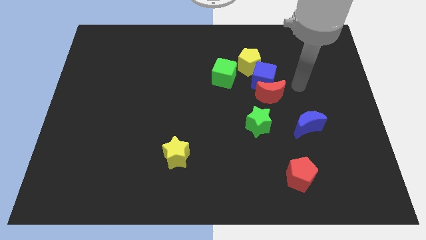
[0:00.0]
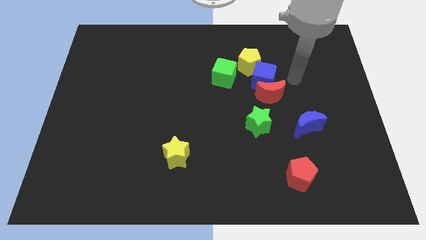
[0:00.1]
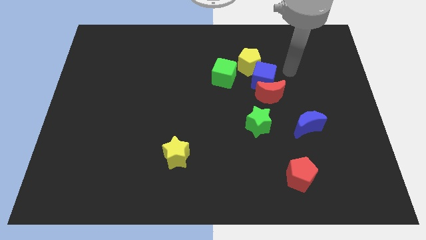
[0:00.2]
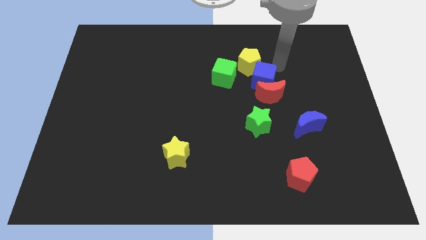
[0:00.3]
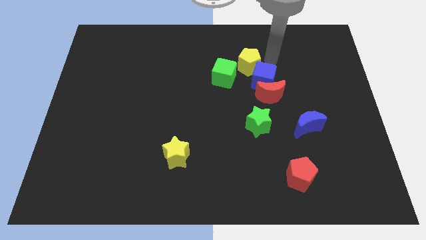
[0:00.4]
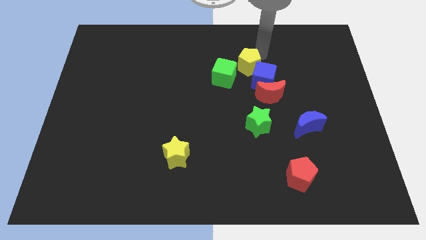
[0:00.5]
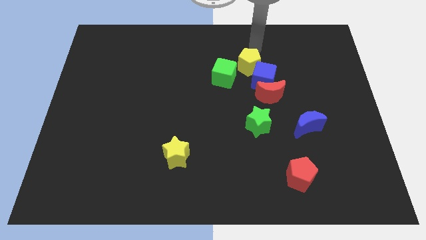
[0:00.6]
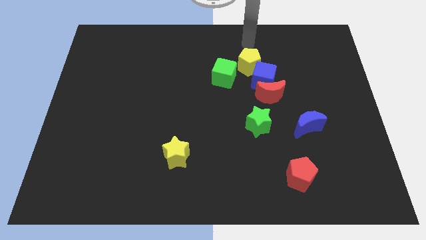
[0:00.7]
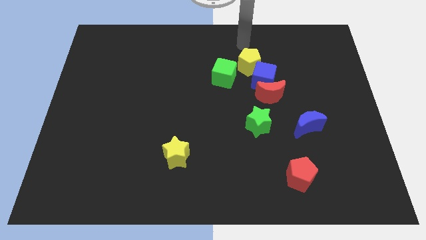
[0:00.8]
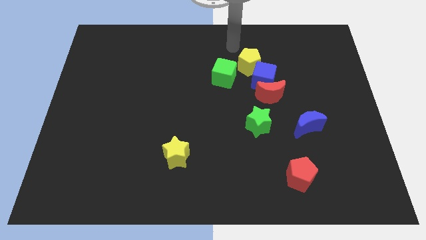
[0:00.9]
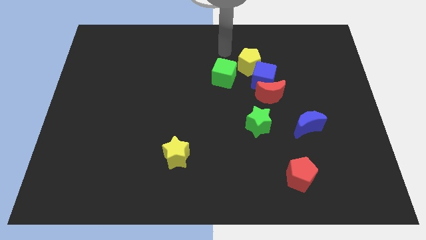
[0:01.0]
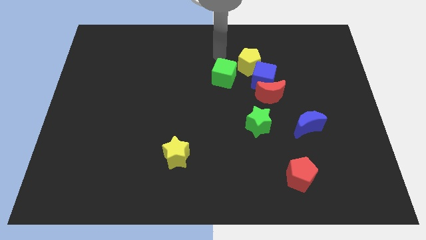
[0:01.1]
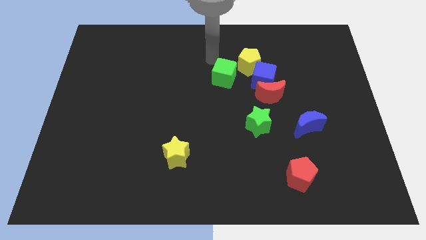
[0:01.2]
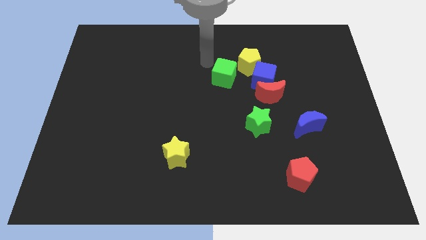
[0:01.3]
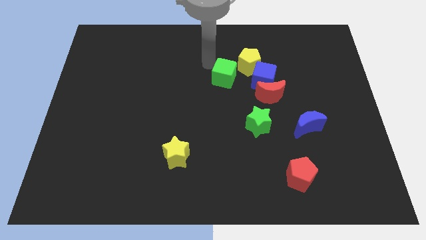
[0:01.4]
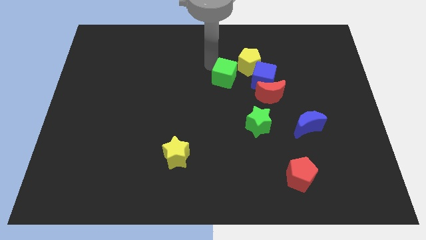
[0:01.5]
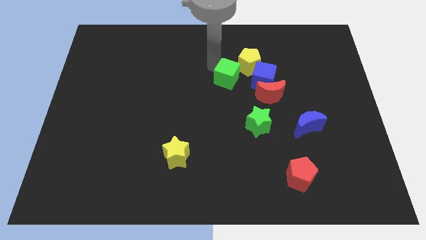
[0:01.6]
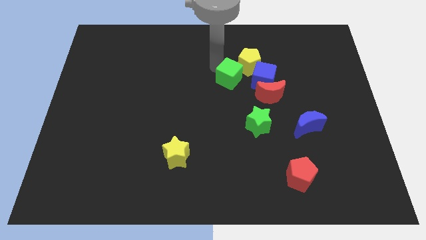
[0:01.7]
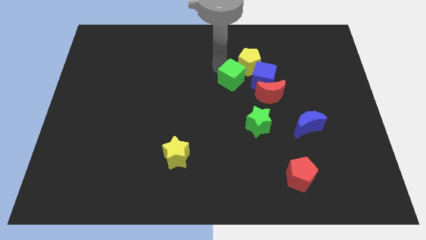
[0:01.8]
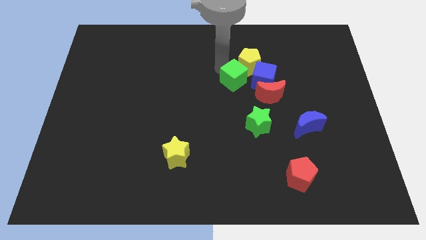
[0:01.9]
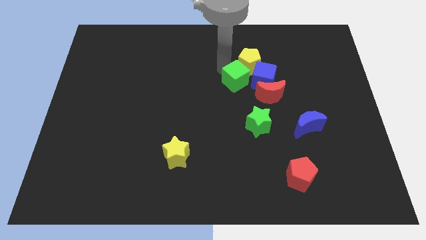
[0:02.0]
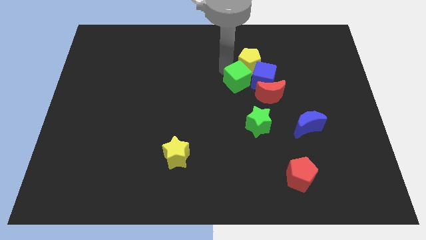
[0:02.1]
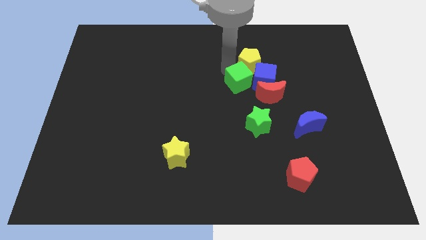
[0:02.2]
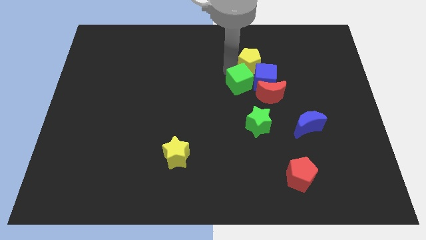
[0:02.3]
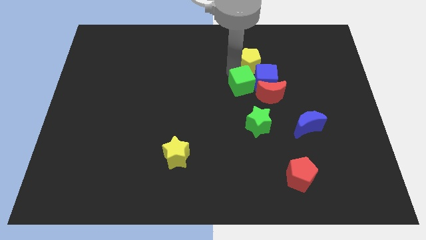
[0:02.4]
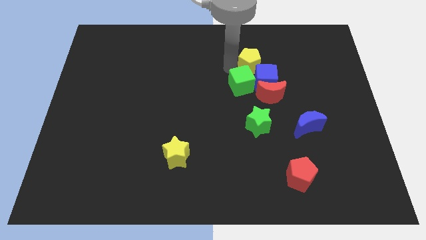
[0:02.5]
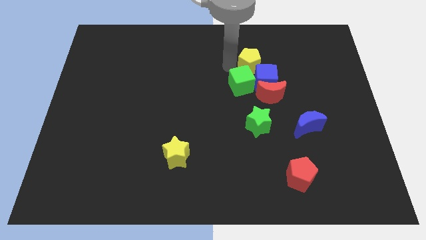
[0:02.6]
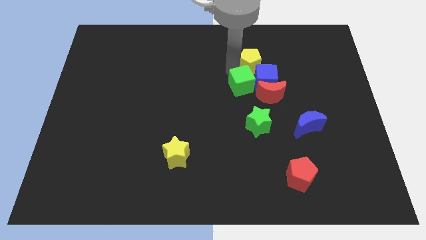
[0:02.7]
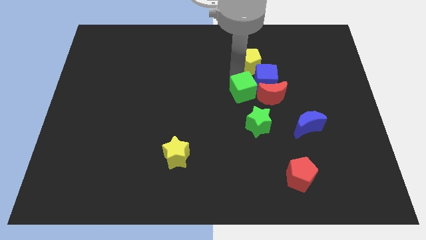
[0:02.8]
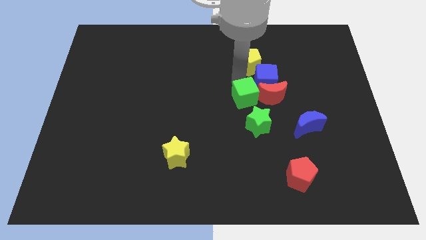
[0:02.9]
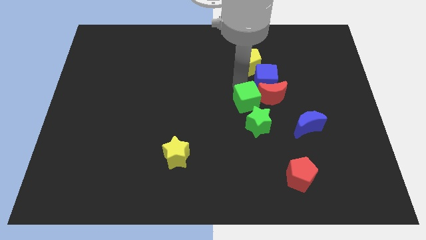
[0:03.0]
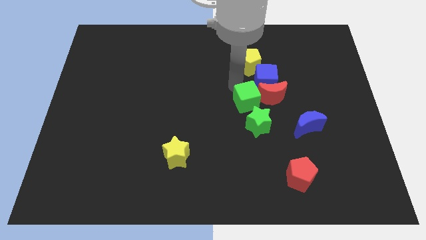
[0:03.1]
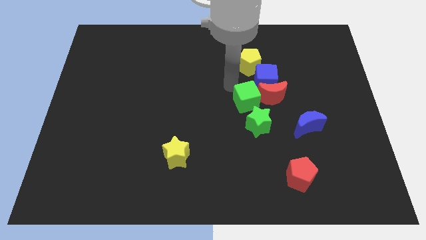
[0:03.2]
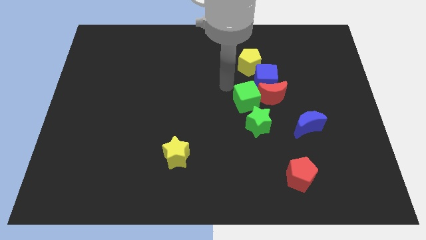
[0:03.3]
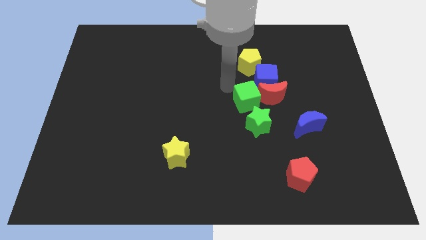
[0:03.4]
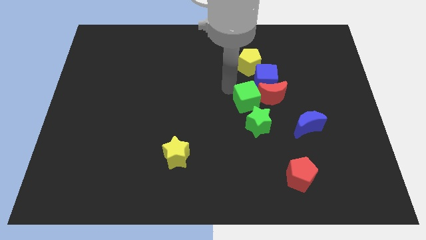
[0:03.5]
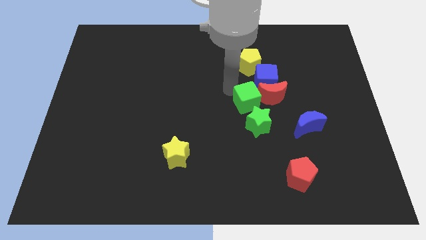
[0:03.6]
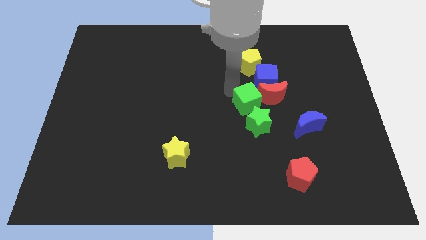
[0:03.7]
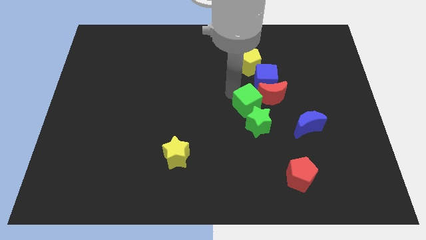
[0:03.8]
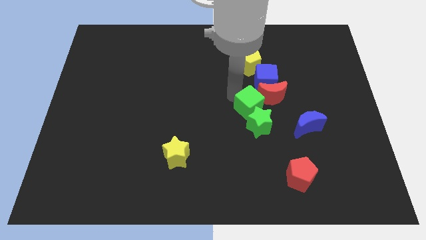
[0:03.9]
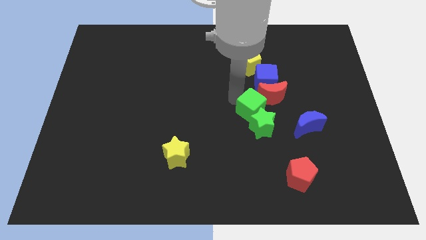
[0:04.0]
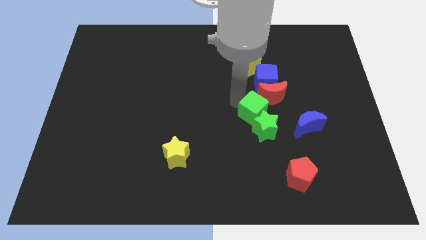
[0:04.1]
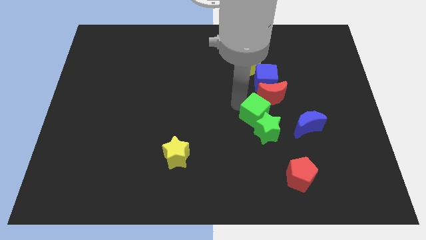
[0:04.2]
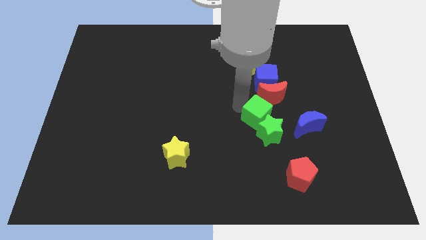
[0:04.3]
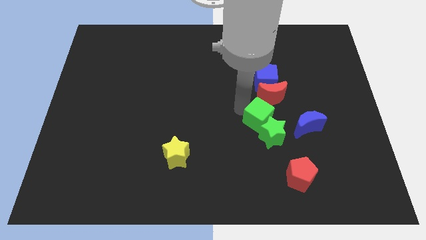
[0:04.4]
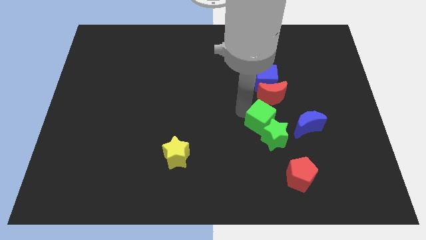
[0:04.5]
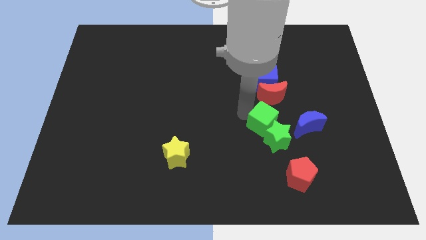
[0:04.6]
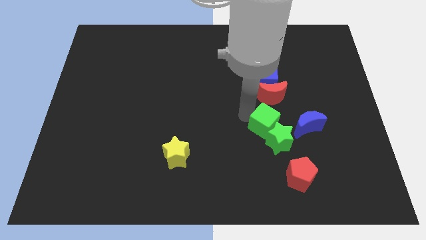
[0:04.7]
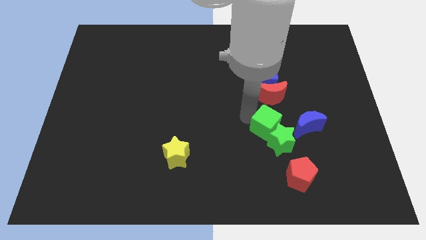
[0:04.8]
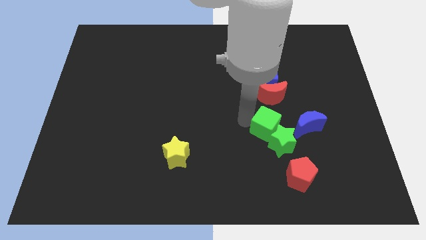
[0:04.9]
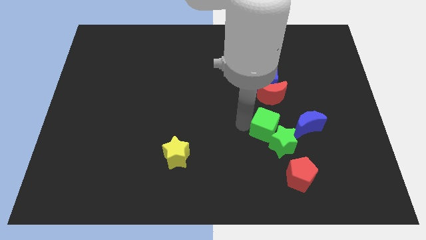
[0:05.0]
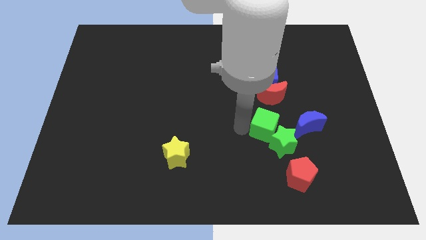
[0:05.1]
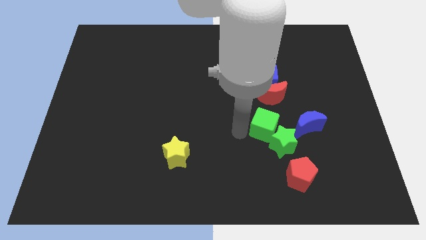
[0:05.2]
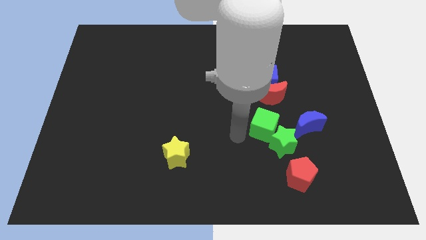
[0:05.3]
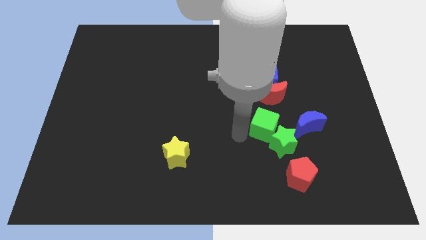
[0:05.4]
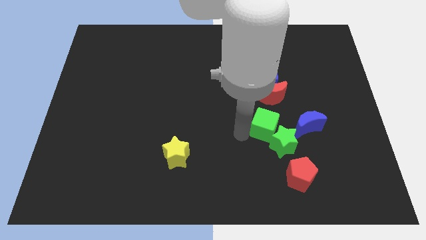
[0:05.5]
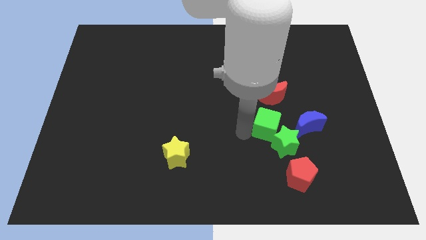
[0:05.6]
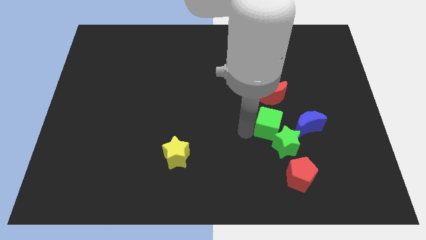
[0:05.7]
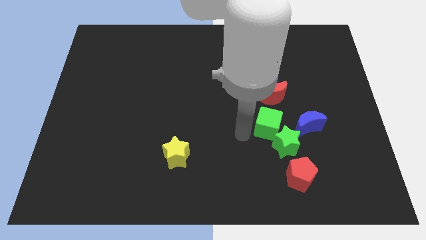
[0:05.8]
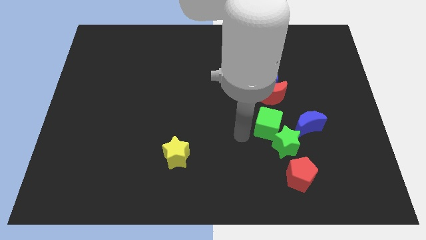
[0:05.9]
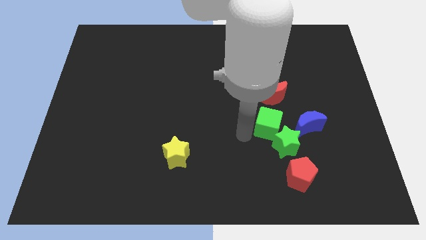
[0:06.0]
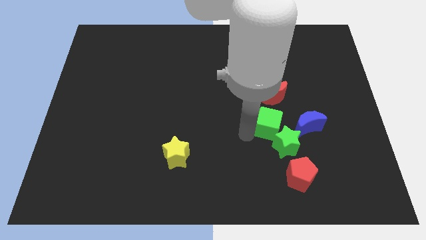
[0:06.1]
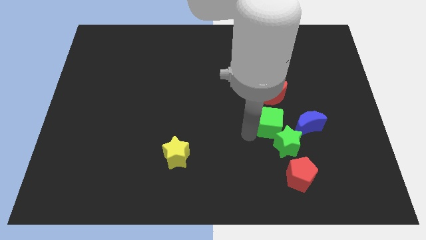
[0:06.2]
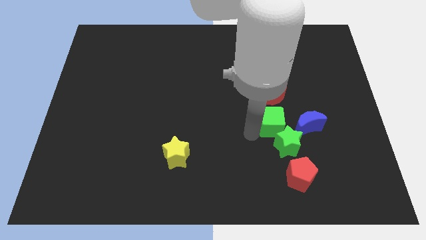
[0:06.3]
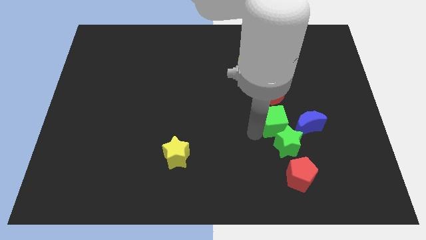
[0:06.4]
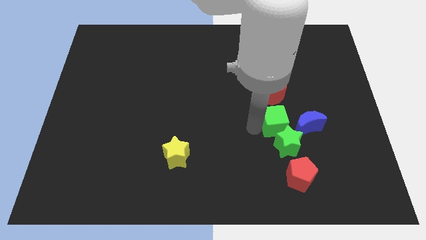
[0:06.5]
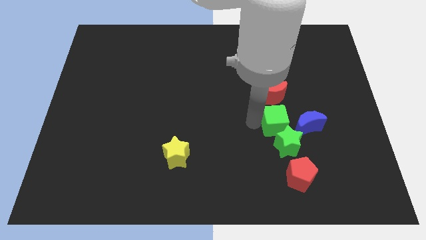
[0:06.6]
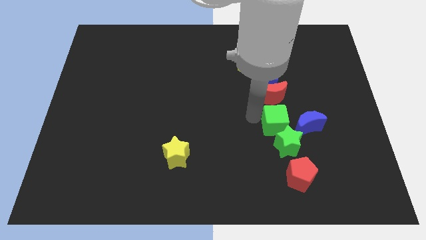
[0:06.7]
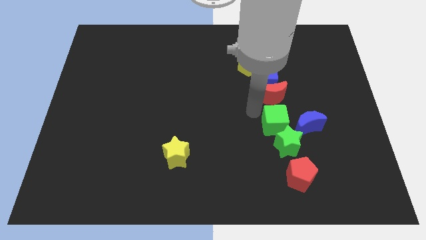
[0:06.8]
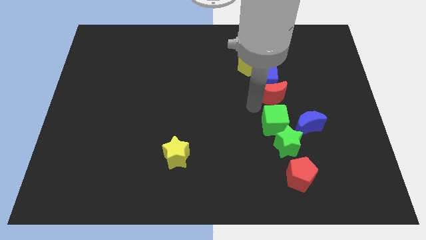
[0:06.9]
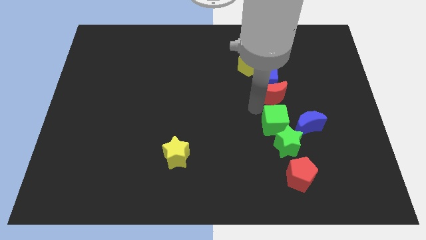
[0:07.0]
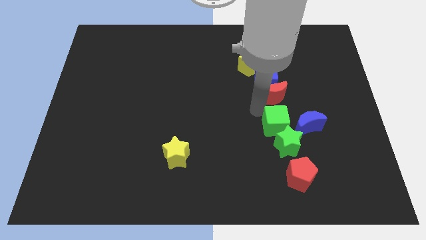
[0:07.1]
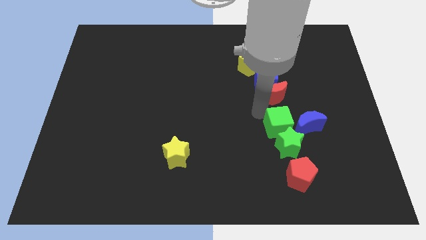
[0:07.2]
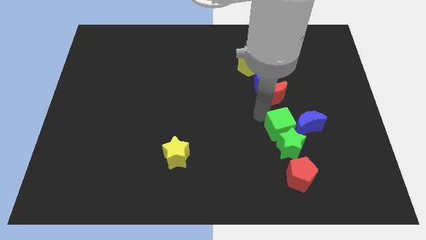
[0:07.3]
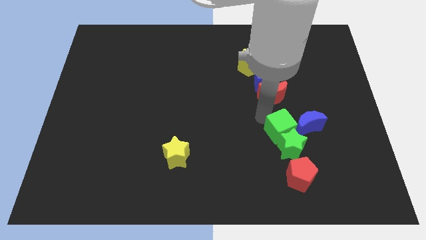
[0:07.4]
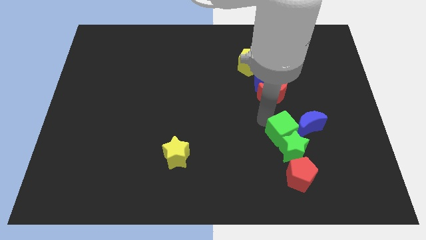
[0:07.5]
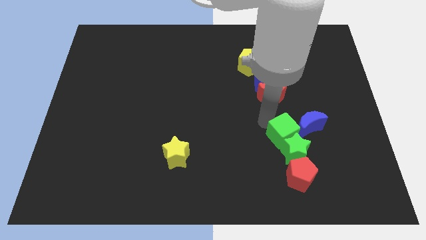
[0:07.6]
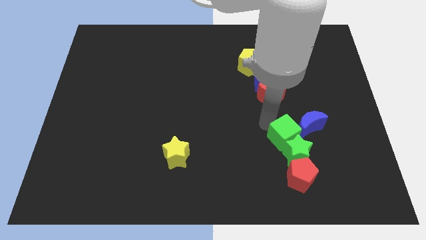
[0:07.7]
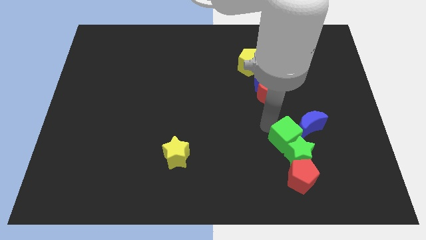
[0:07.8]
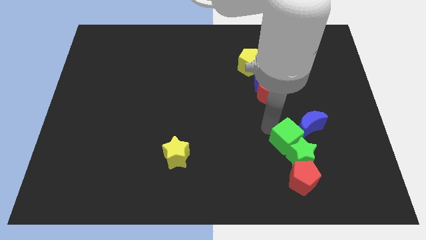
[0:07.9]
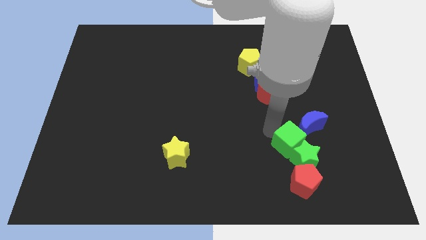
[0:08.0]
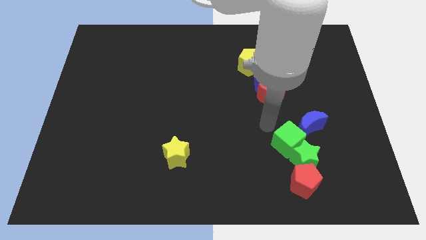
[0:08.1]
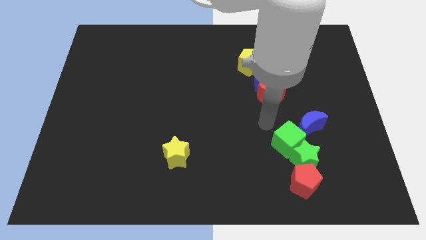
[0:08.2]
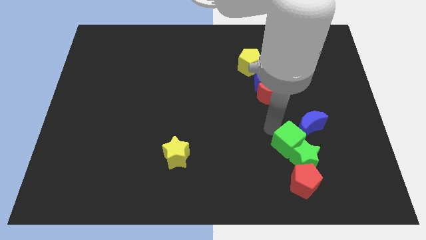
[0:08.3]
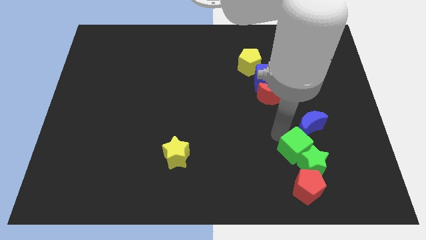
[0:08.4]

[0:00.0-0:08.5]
put the green cube below the blue moon
